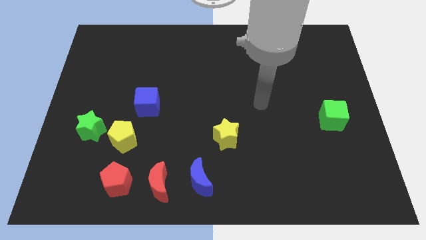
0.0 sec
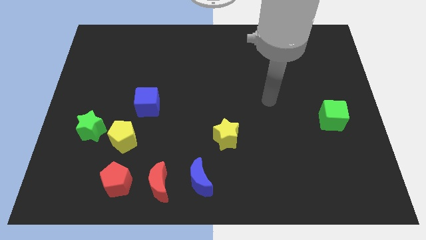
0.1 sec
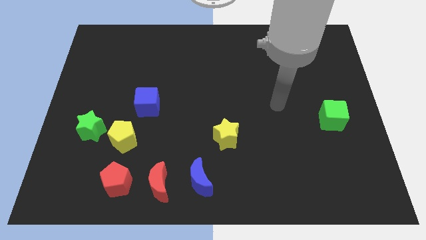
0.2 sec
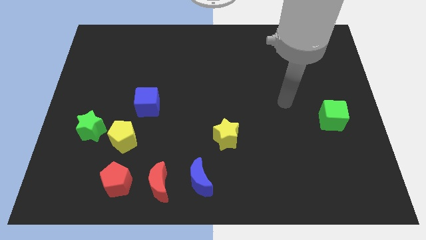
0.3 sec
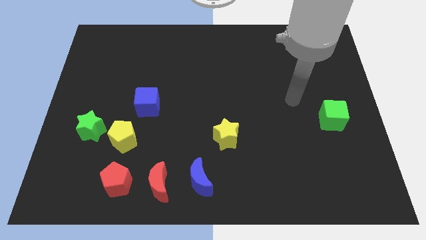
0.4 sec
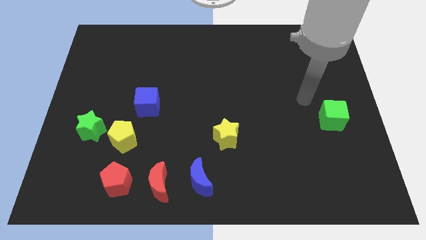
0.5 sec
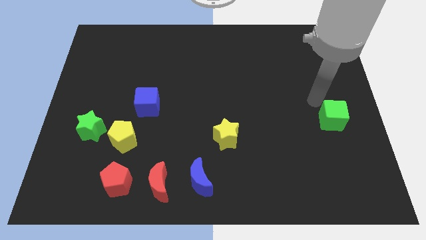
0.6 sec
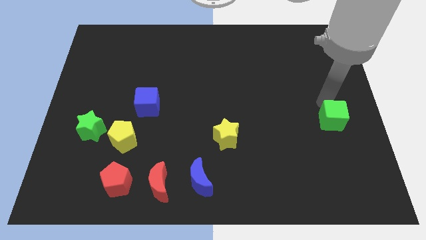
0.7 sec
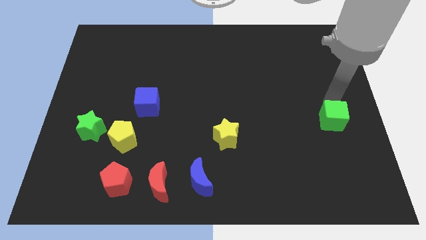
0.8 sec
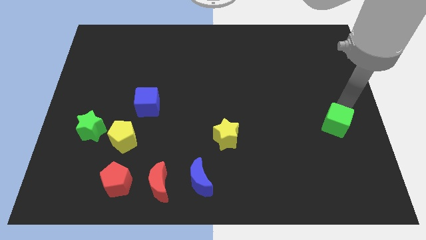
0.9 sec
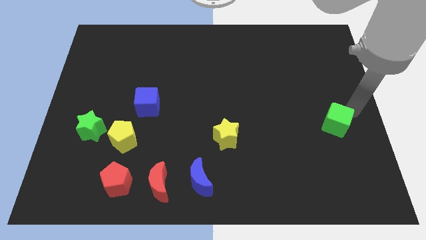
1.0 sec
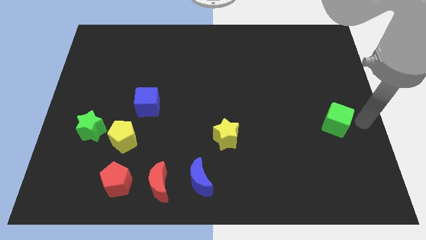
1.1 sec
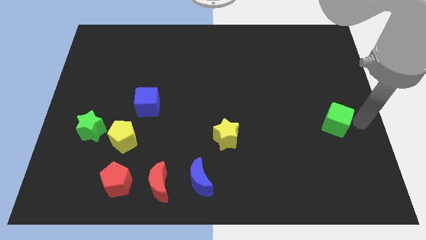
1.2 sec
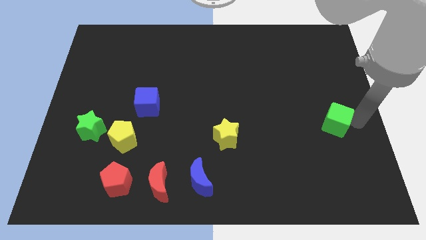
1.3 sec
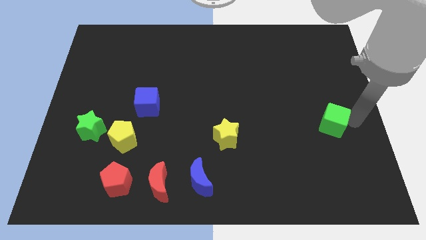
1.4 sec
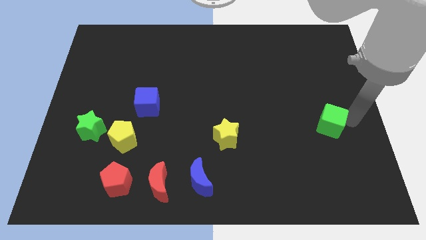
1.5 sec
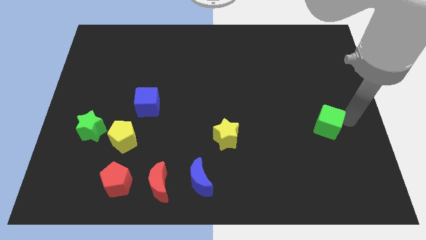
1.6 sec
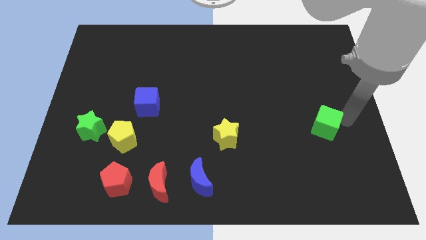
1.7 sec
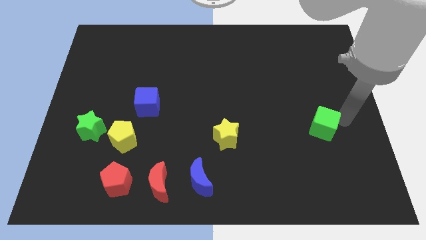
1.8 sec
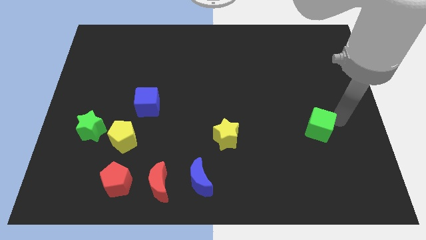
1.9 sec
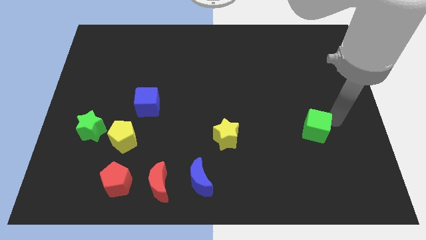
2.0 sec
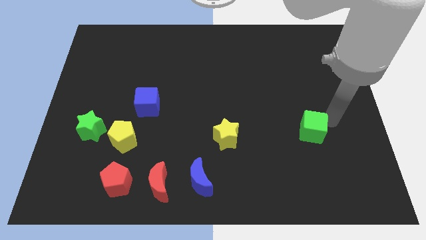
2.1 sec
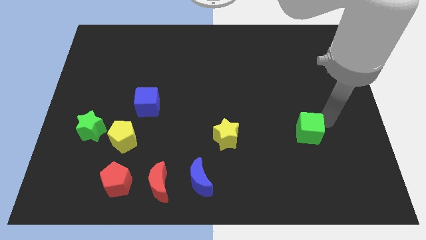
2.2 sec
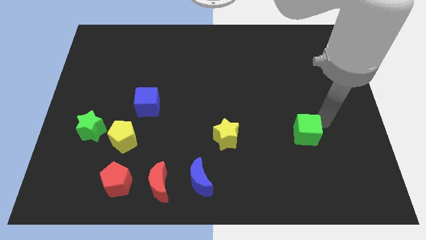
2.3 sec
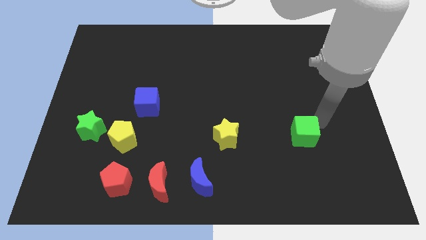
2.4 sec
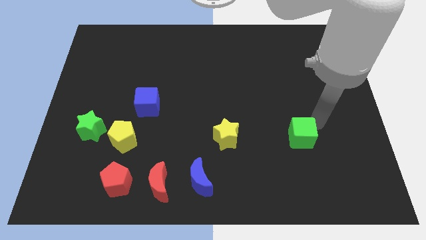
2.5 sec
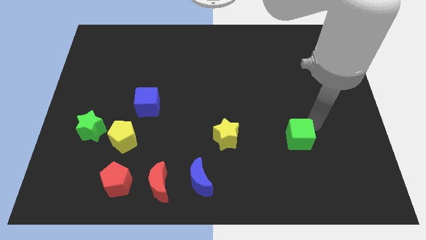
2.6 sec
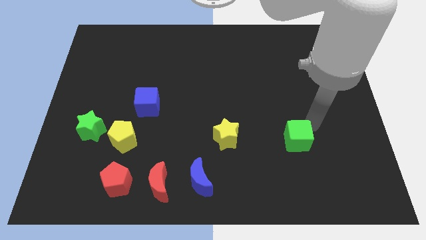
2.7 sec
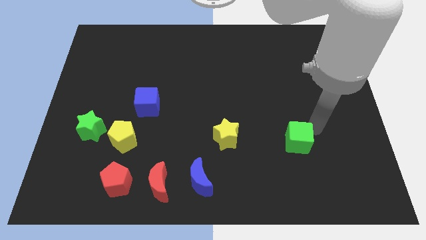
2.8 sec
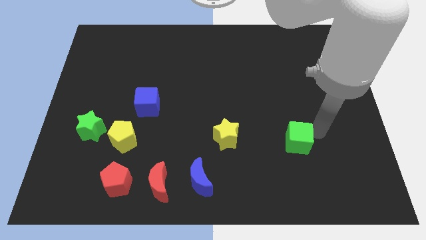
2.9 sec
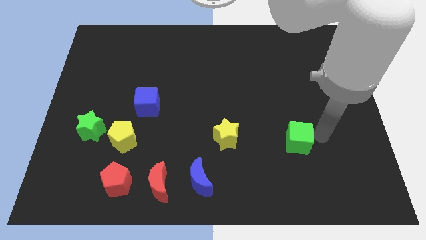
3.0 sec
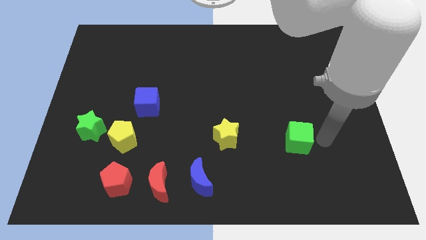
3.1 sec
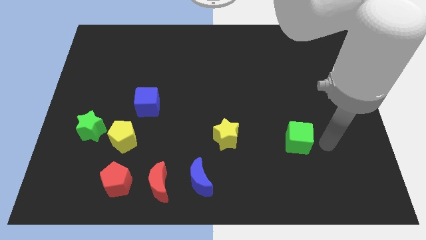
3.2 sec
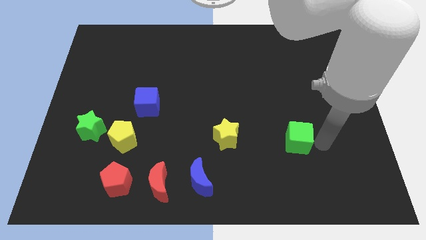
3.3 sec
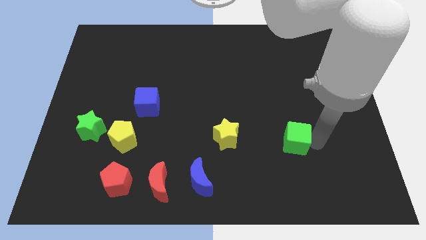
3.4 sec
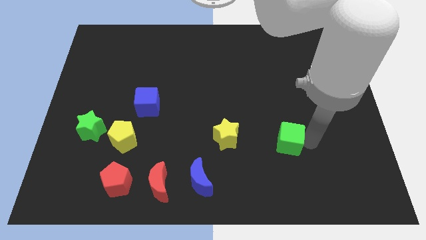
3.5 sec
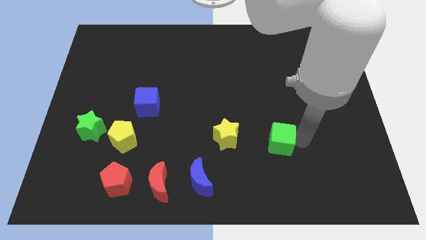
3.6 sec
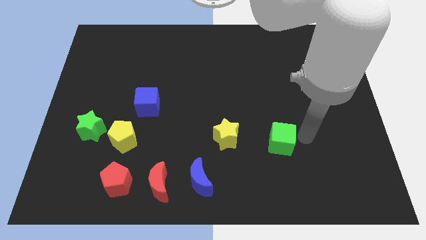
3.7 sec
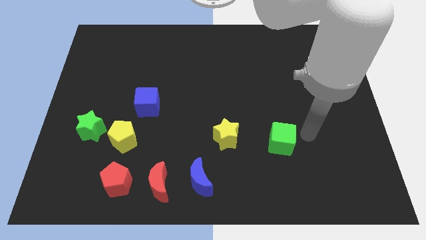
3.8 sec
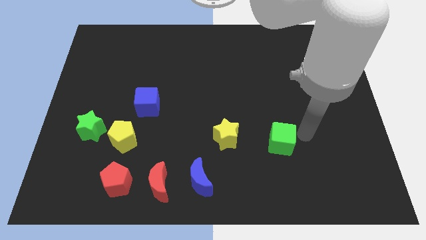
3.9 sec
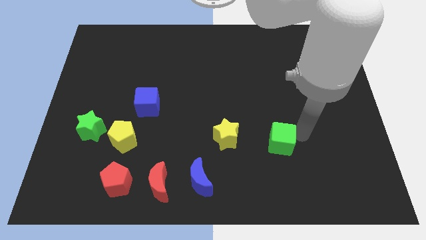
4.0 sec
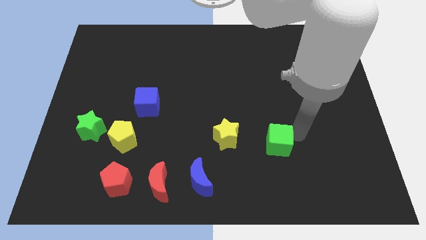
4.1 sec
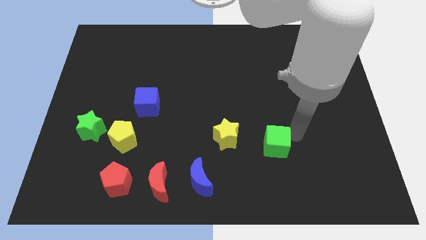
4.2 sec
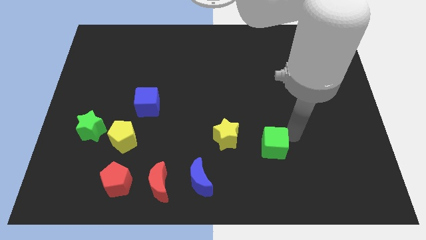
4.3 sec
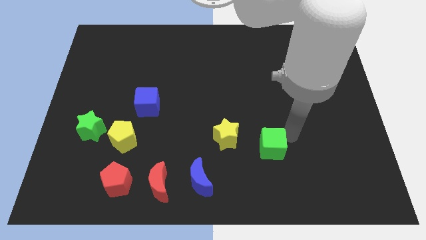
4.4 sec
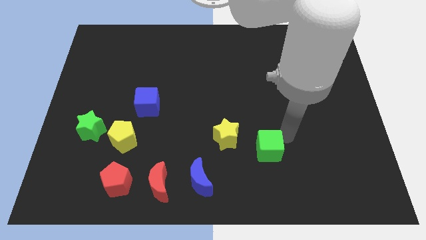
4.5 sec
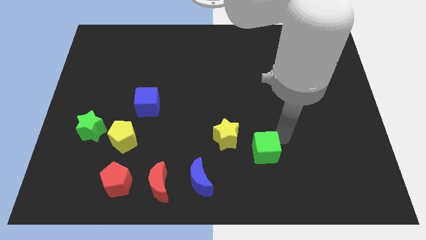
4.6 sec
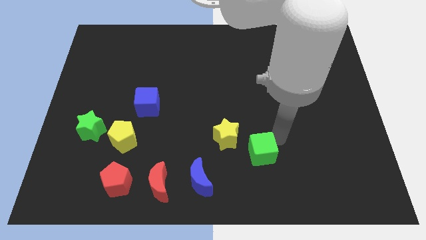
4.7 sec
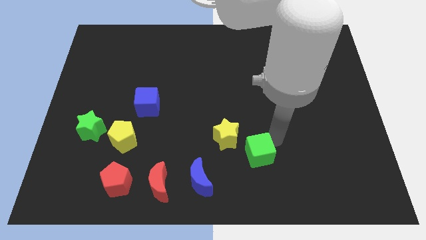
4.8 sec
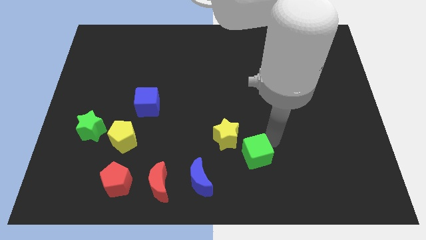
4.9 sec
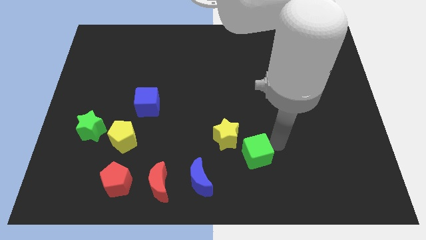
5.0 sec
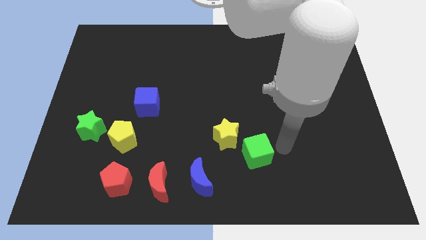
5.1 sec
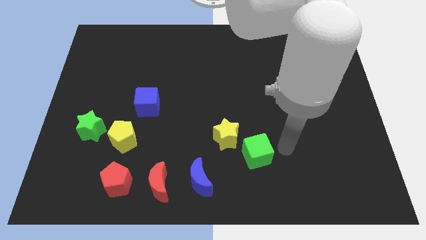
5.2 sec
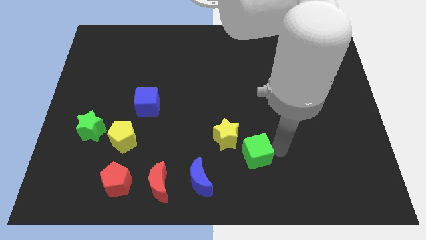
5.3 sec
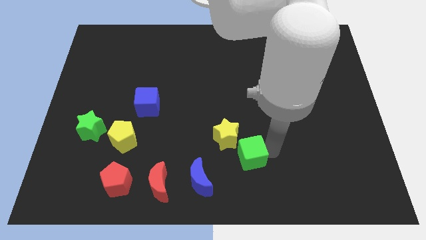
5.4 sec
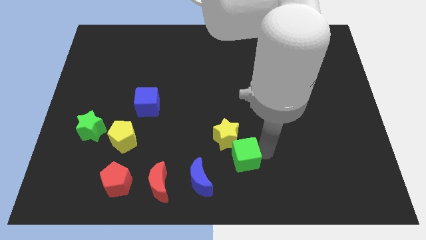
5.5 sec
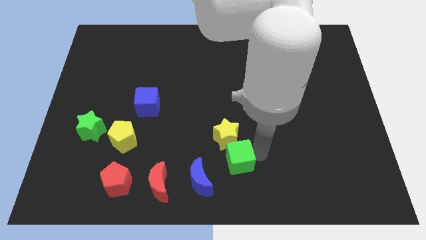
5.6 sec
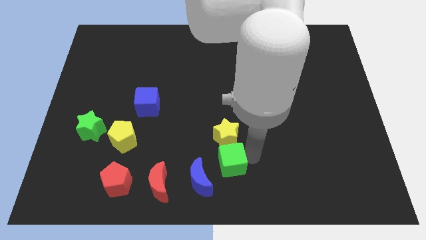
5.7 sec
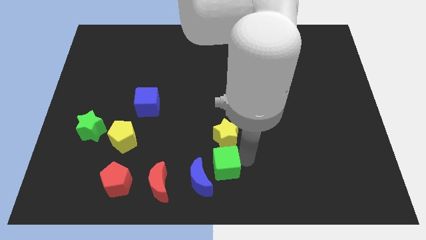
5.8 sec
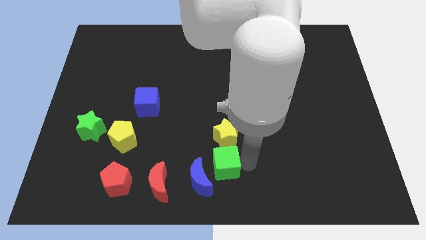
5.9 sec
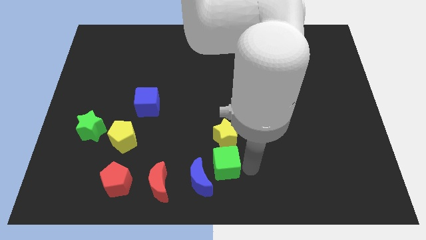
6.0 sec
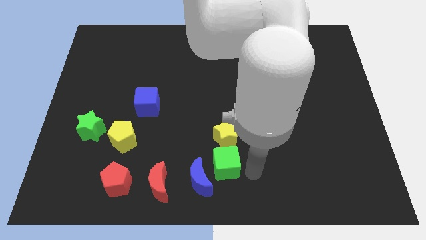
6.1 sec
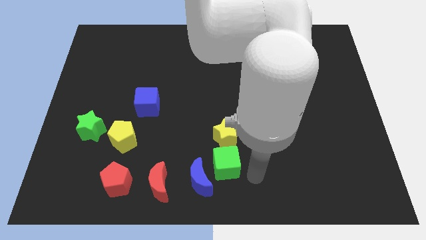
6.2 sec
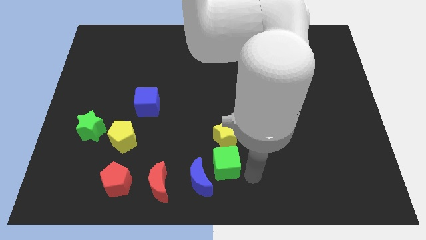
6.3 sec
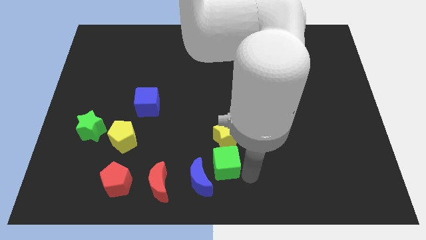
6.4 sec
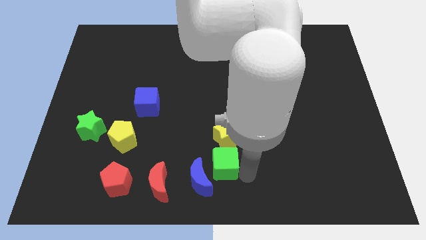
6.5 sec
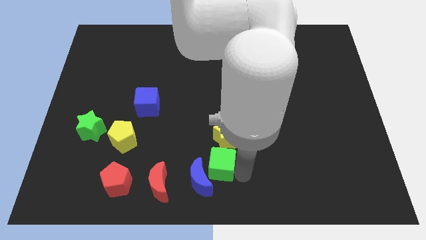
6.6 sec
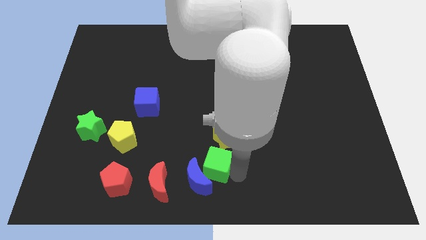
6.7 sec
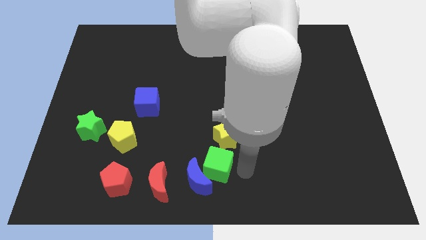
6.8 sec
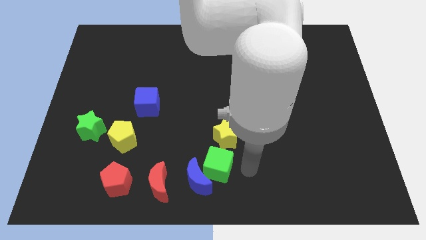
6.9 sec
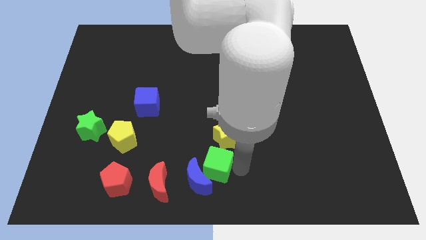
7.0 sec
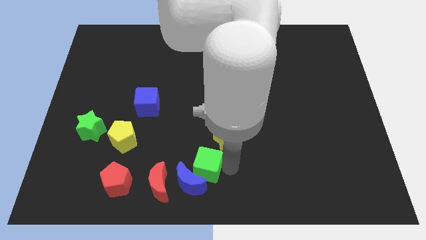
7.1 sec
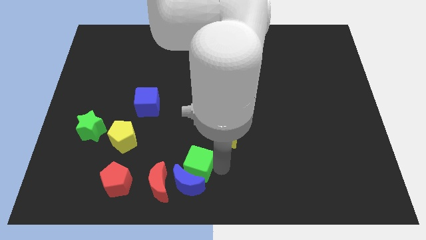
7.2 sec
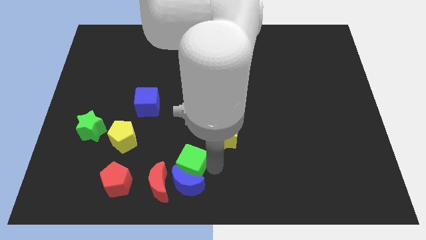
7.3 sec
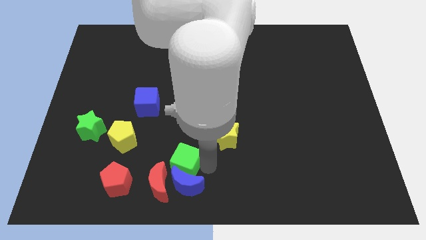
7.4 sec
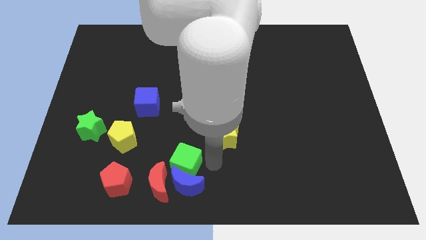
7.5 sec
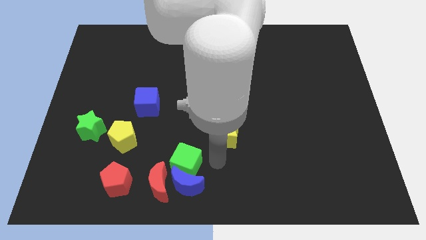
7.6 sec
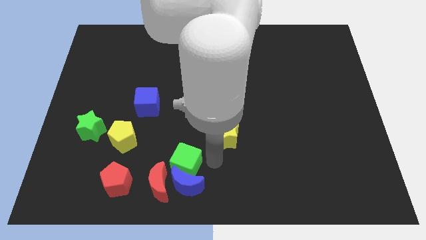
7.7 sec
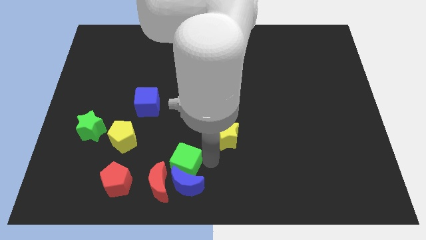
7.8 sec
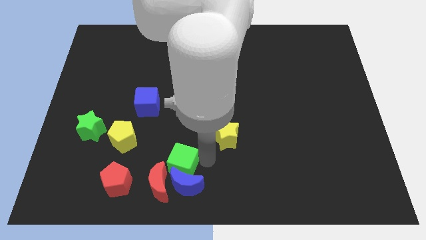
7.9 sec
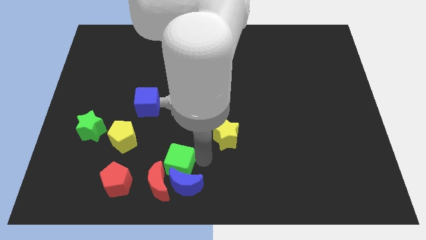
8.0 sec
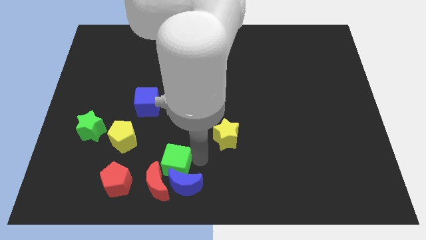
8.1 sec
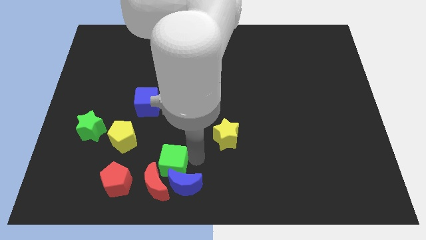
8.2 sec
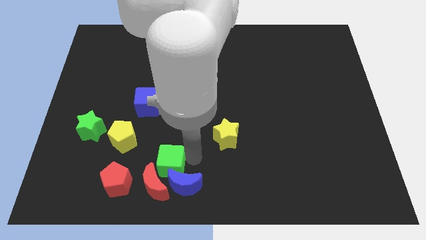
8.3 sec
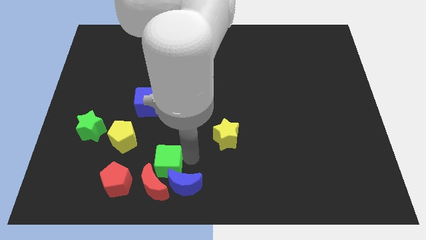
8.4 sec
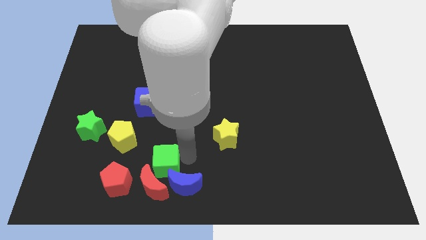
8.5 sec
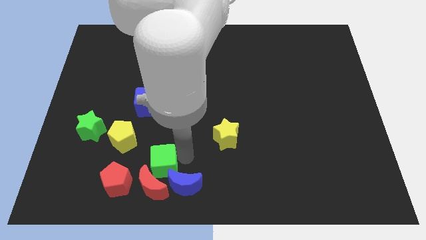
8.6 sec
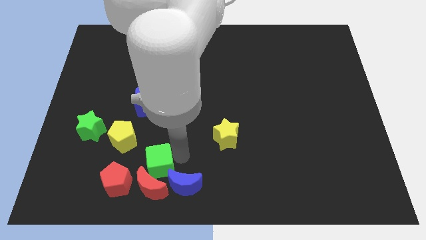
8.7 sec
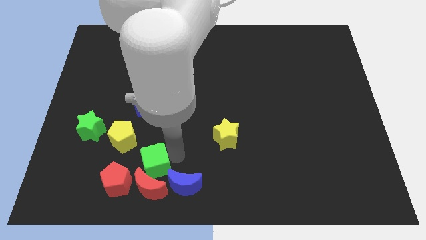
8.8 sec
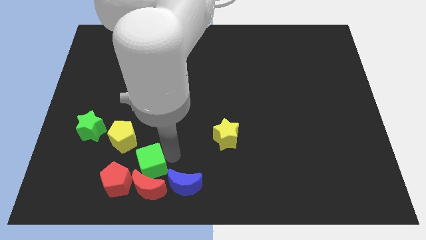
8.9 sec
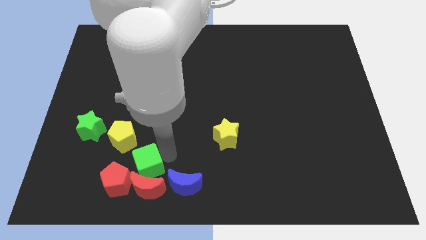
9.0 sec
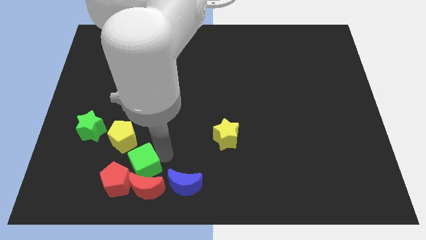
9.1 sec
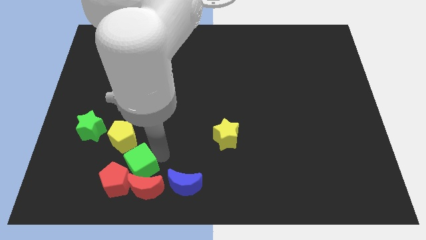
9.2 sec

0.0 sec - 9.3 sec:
move the green cube towards the red pentagon
